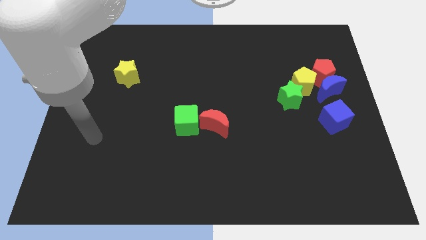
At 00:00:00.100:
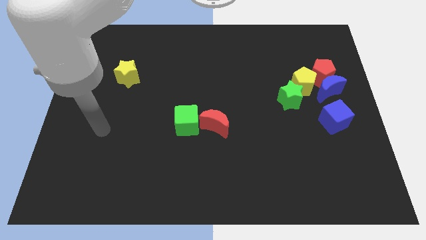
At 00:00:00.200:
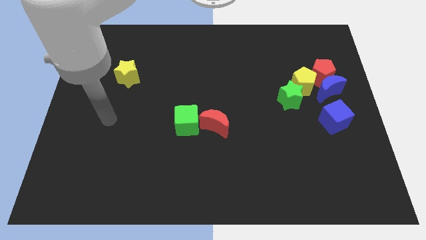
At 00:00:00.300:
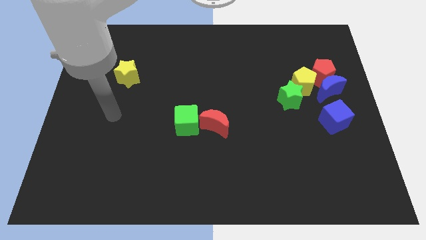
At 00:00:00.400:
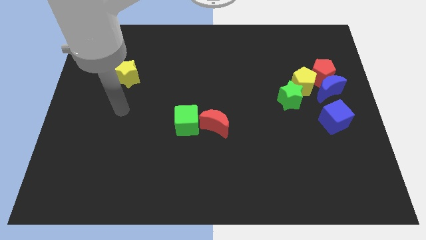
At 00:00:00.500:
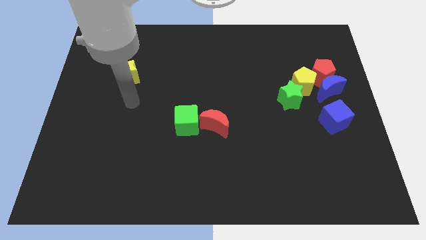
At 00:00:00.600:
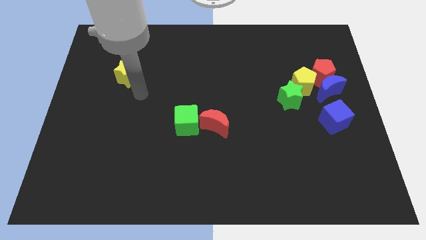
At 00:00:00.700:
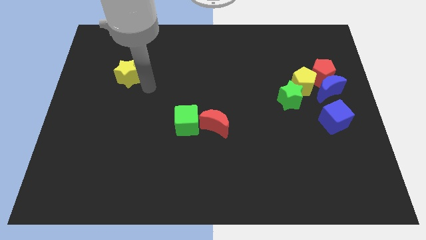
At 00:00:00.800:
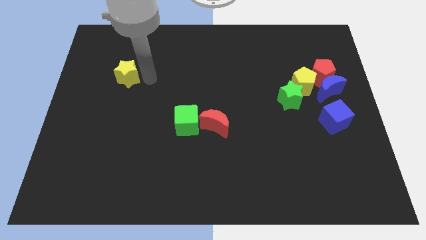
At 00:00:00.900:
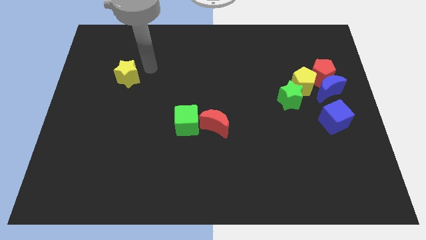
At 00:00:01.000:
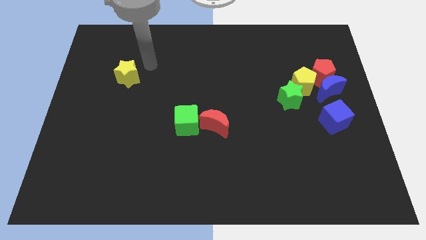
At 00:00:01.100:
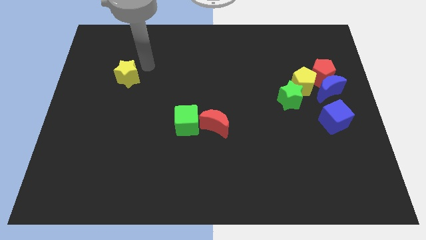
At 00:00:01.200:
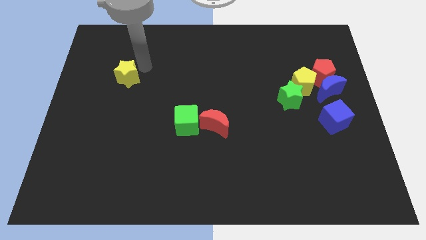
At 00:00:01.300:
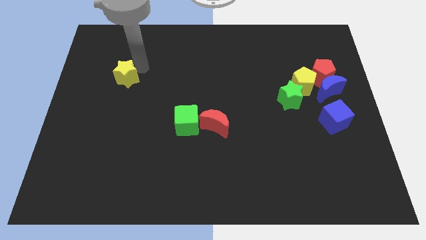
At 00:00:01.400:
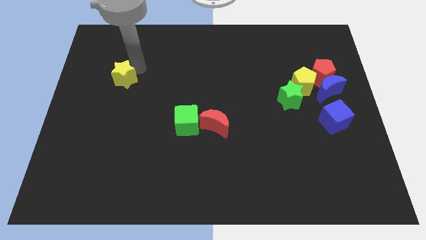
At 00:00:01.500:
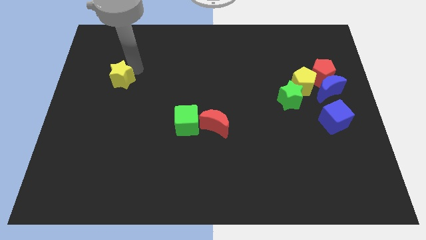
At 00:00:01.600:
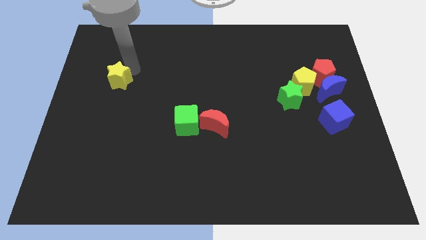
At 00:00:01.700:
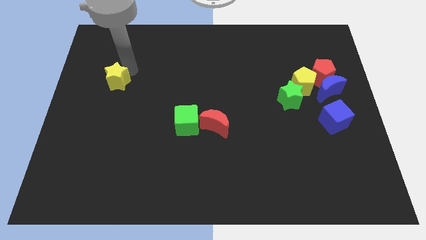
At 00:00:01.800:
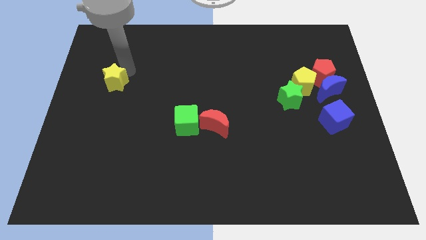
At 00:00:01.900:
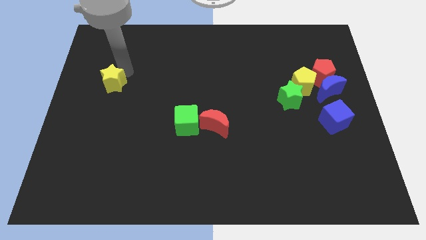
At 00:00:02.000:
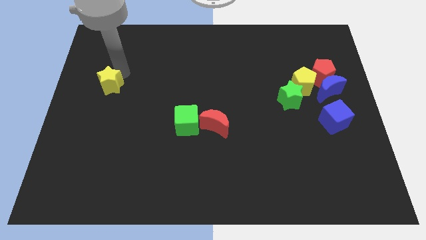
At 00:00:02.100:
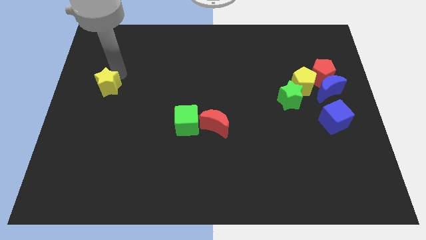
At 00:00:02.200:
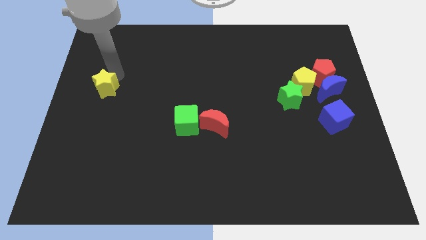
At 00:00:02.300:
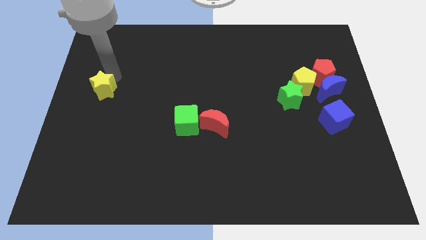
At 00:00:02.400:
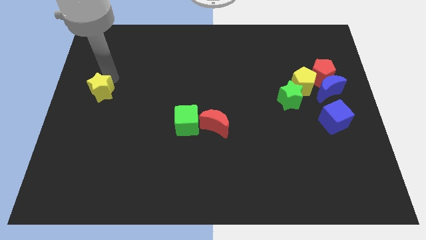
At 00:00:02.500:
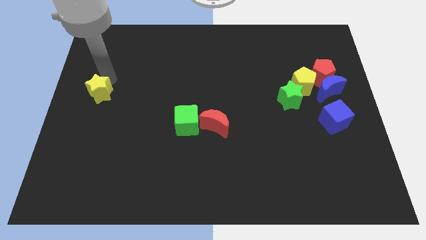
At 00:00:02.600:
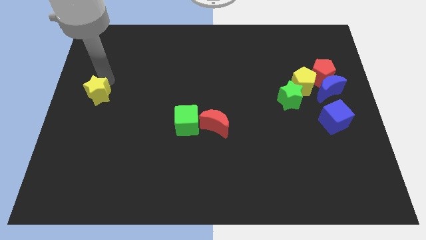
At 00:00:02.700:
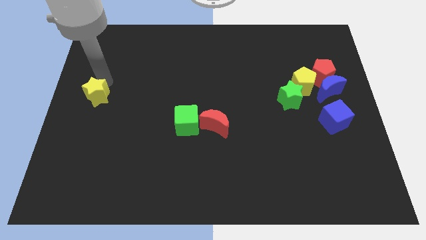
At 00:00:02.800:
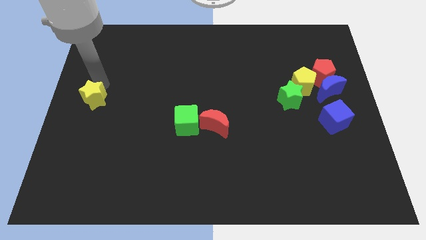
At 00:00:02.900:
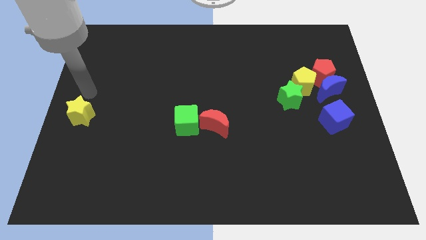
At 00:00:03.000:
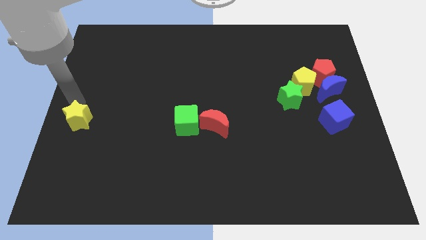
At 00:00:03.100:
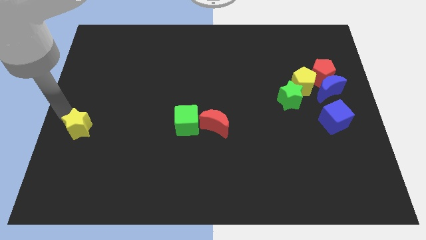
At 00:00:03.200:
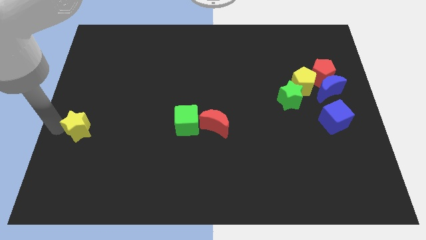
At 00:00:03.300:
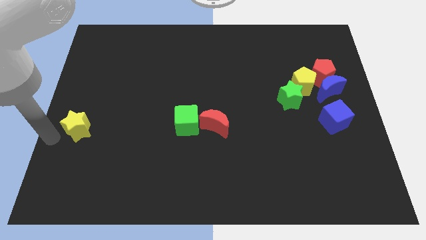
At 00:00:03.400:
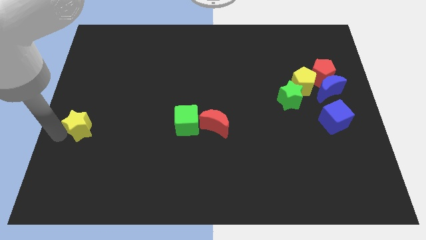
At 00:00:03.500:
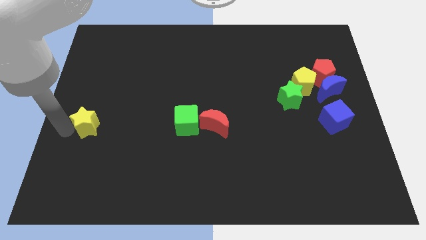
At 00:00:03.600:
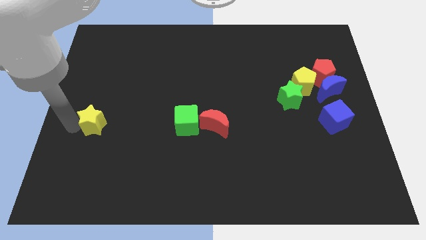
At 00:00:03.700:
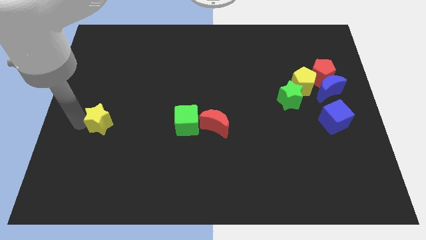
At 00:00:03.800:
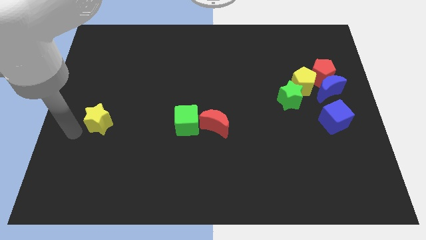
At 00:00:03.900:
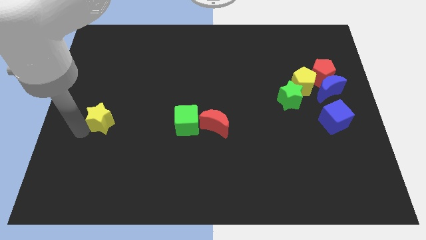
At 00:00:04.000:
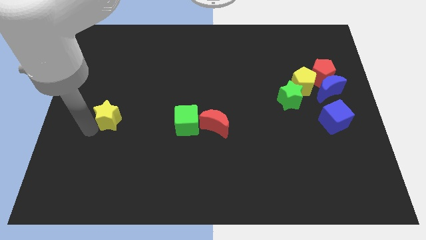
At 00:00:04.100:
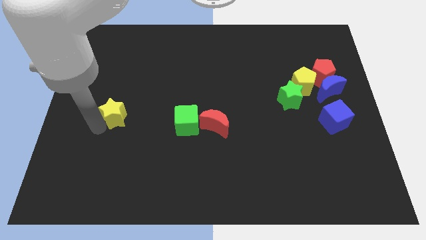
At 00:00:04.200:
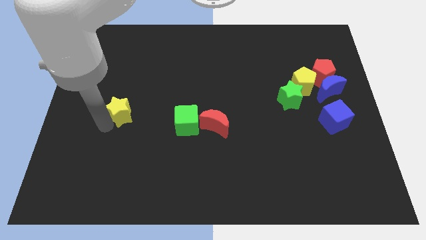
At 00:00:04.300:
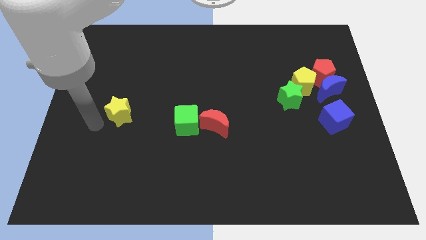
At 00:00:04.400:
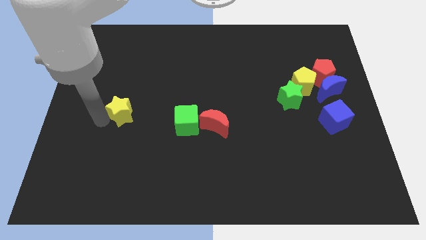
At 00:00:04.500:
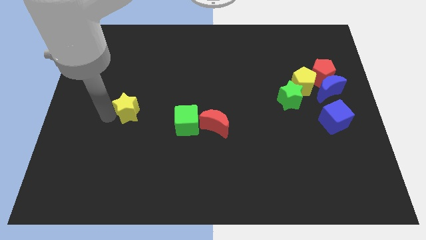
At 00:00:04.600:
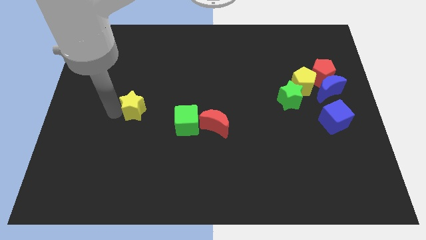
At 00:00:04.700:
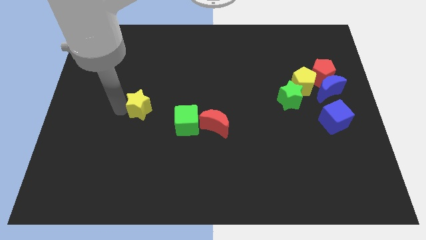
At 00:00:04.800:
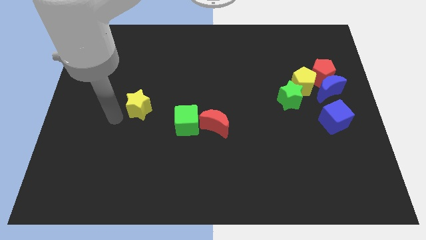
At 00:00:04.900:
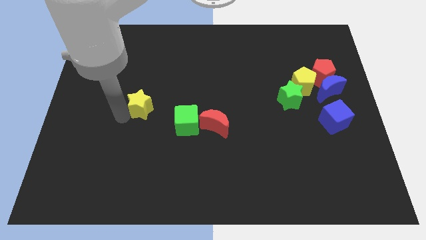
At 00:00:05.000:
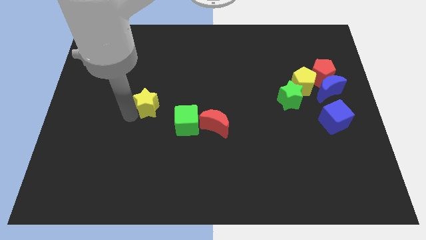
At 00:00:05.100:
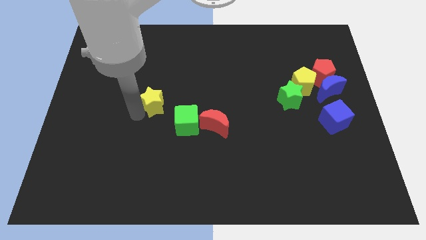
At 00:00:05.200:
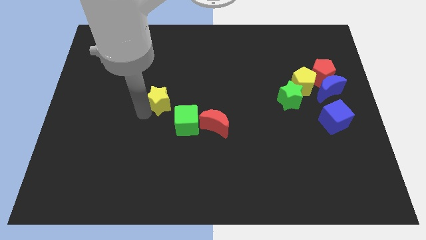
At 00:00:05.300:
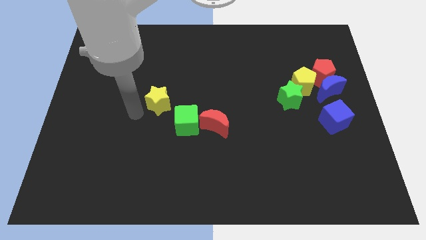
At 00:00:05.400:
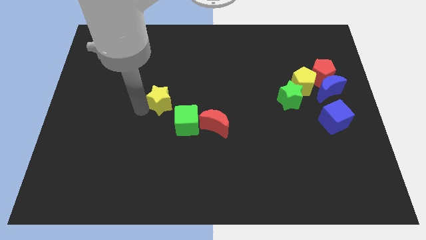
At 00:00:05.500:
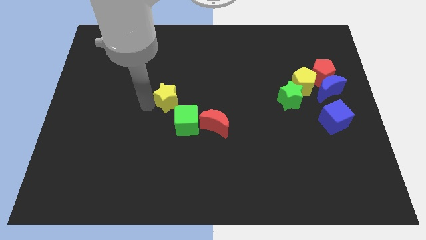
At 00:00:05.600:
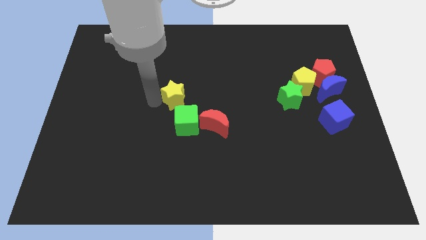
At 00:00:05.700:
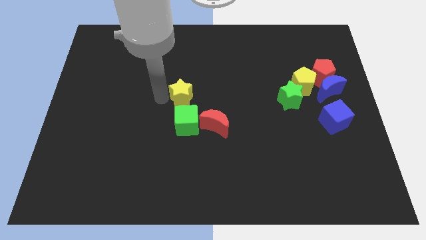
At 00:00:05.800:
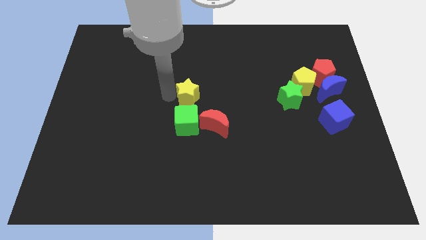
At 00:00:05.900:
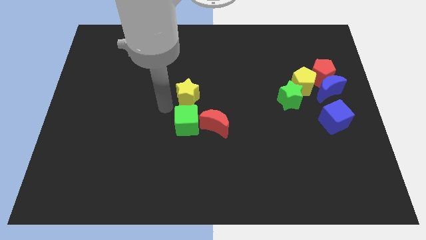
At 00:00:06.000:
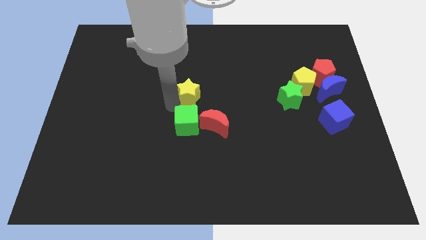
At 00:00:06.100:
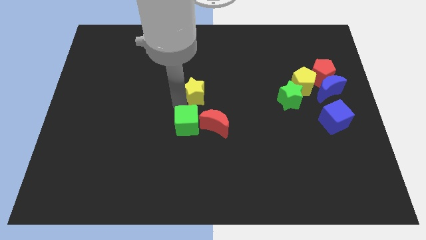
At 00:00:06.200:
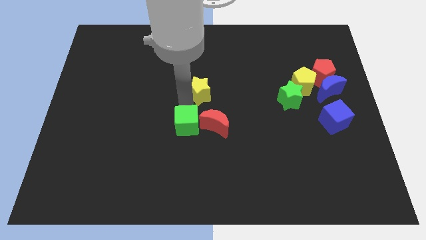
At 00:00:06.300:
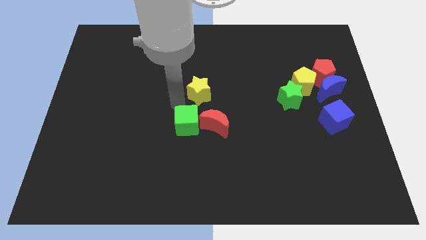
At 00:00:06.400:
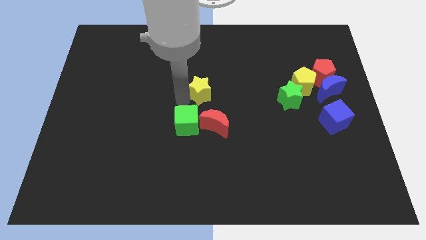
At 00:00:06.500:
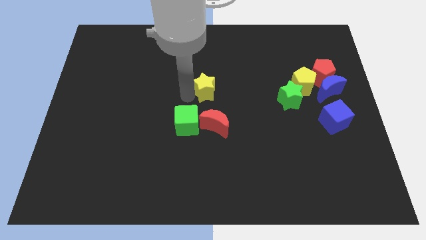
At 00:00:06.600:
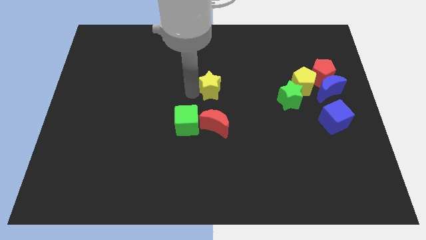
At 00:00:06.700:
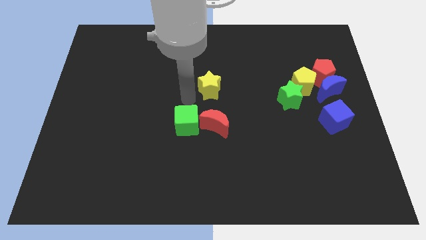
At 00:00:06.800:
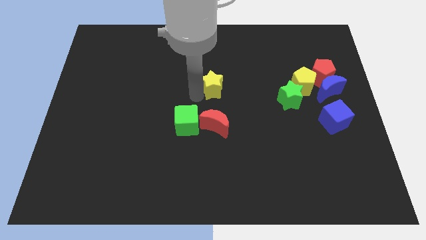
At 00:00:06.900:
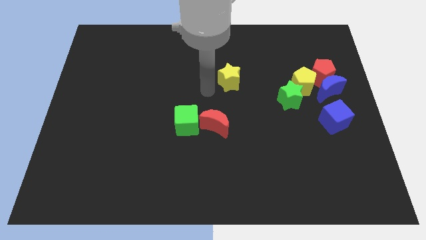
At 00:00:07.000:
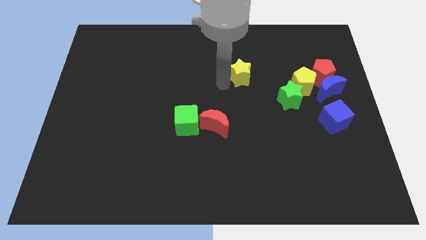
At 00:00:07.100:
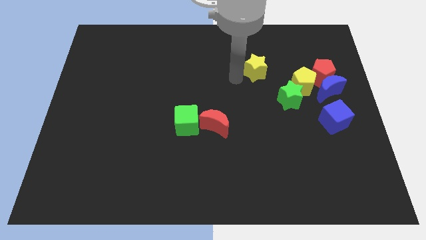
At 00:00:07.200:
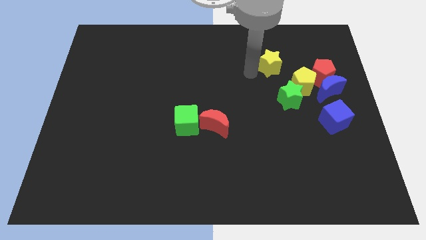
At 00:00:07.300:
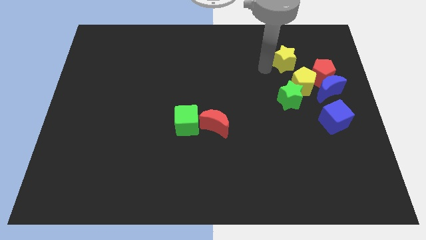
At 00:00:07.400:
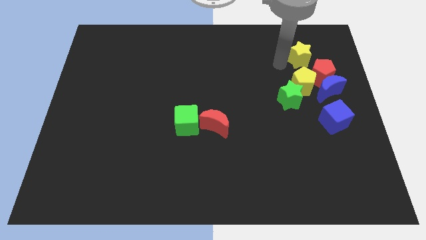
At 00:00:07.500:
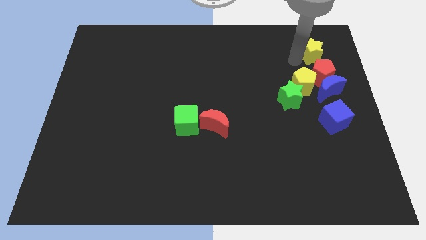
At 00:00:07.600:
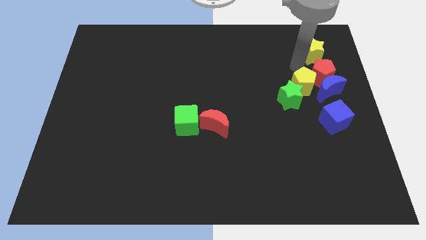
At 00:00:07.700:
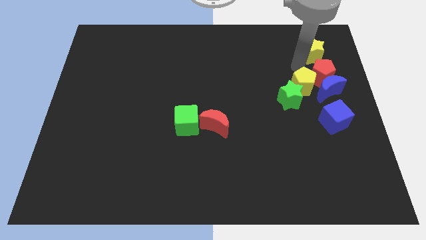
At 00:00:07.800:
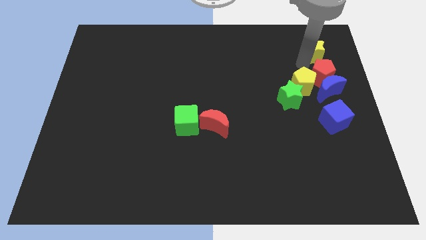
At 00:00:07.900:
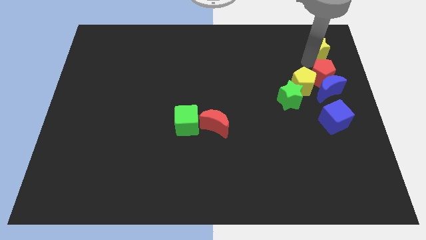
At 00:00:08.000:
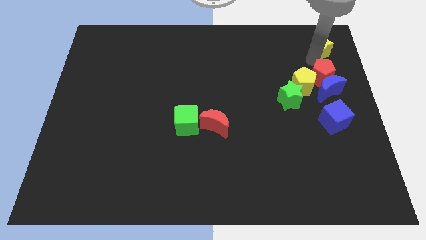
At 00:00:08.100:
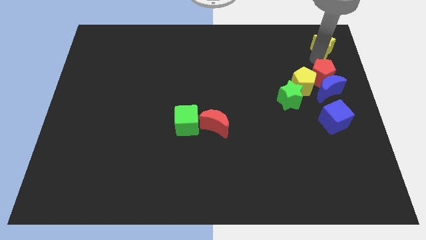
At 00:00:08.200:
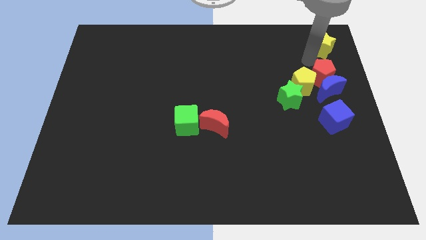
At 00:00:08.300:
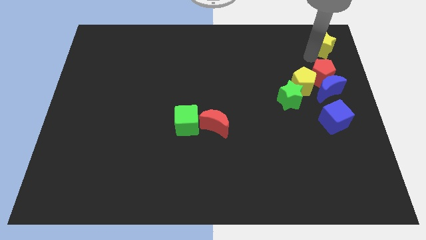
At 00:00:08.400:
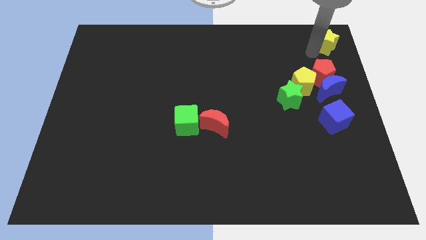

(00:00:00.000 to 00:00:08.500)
move the yellow star to the top right corner
